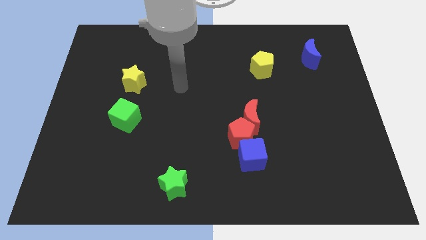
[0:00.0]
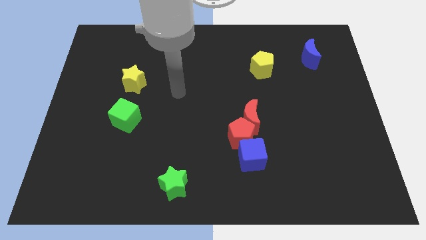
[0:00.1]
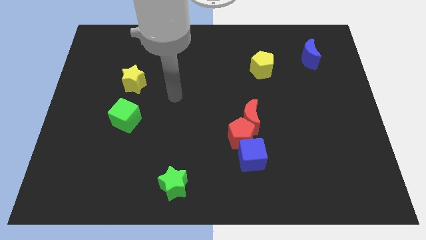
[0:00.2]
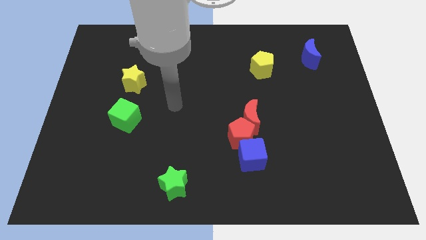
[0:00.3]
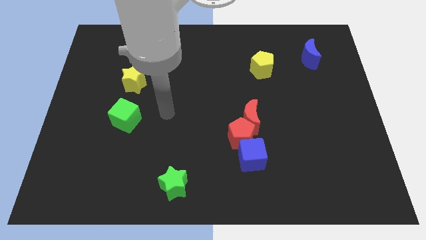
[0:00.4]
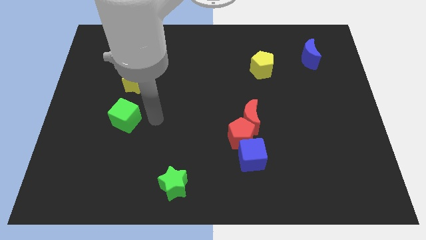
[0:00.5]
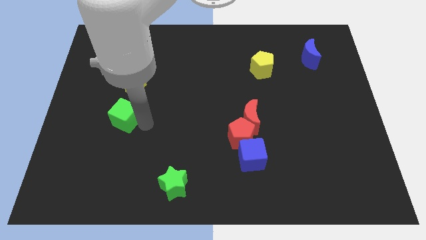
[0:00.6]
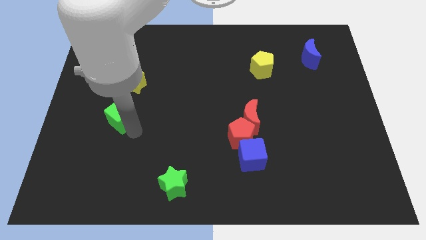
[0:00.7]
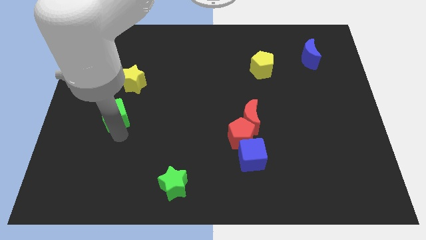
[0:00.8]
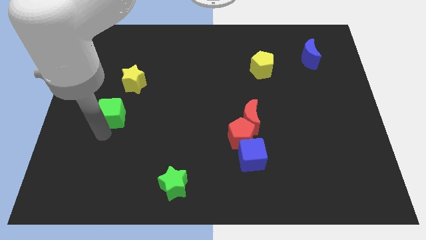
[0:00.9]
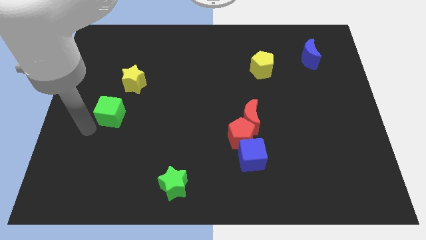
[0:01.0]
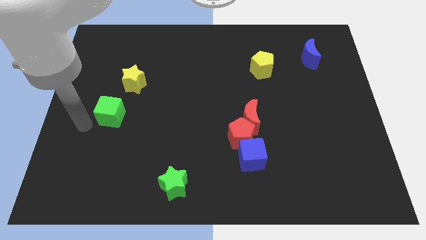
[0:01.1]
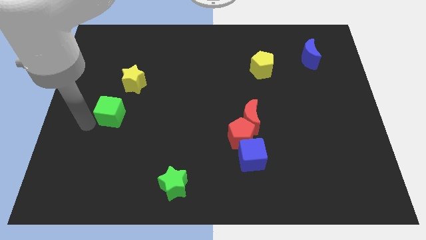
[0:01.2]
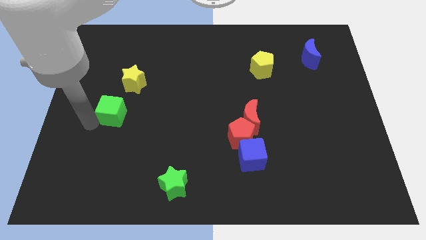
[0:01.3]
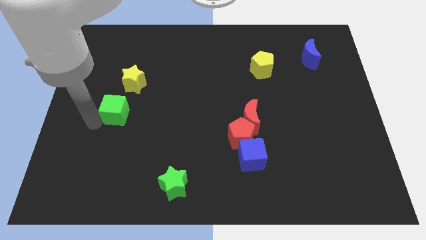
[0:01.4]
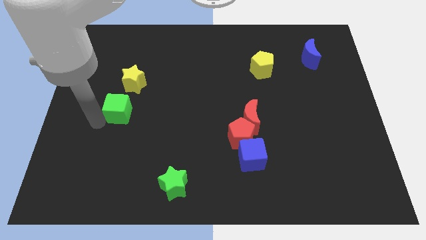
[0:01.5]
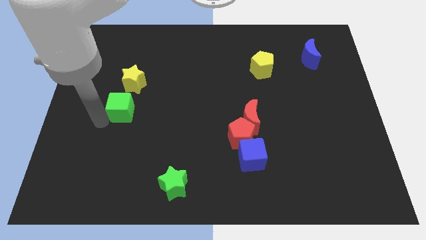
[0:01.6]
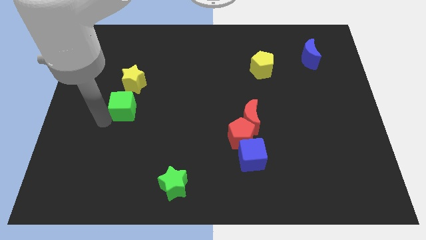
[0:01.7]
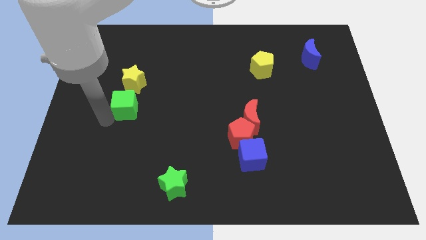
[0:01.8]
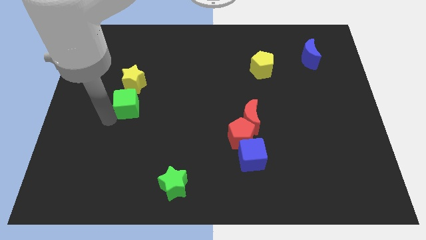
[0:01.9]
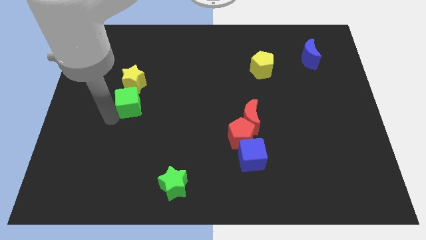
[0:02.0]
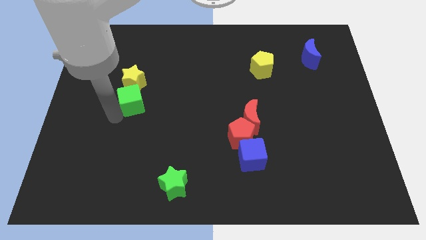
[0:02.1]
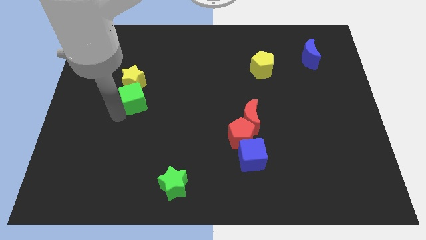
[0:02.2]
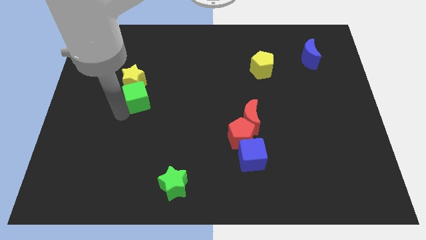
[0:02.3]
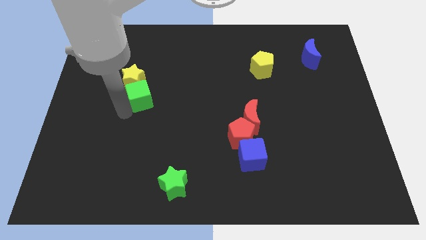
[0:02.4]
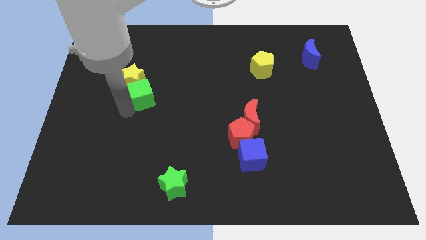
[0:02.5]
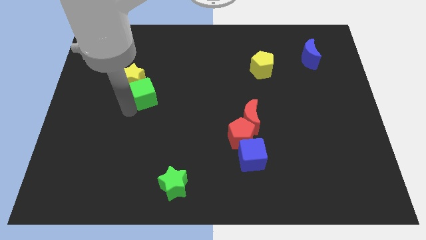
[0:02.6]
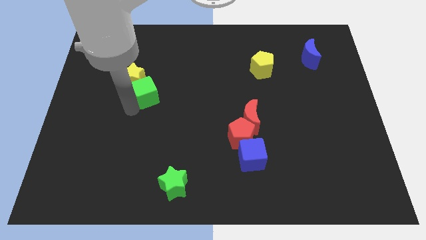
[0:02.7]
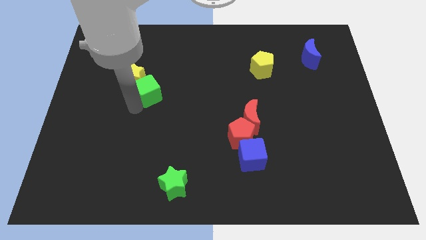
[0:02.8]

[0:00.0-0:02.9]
push the green cube a little upwards

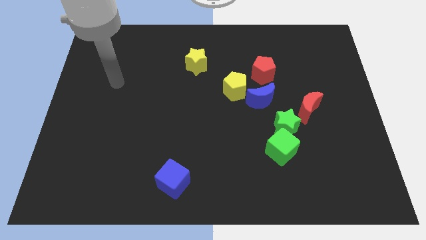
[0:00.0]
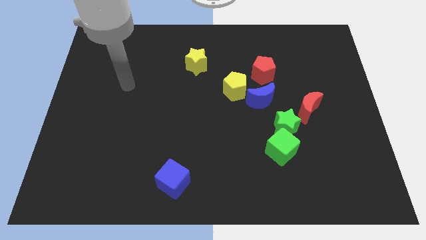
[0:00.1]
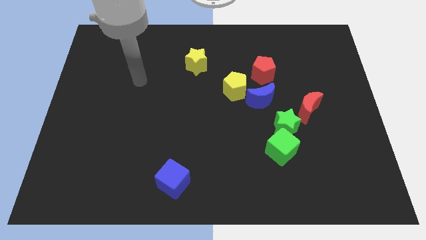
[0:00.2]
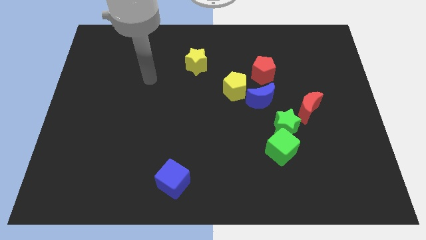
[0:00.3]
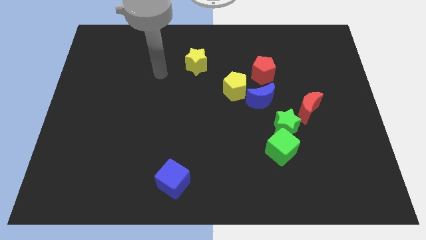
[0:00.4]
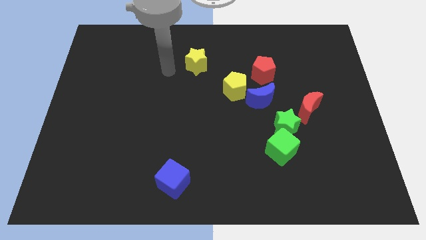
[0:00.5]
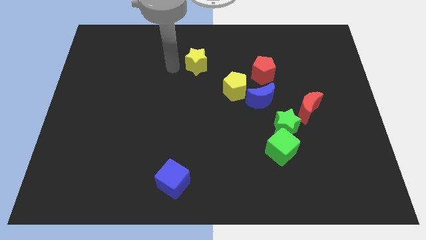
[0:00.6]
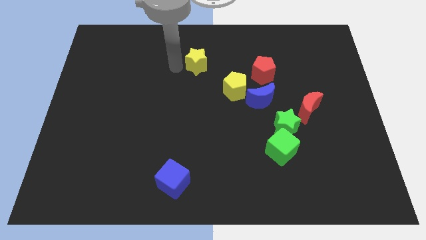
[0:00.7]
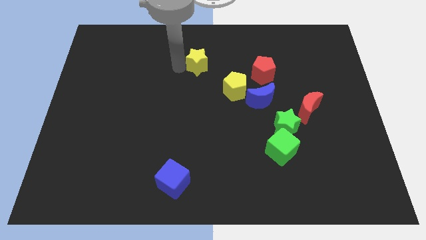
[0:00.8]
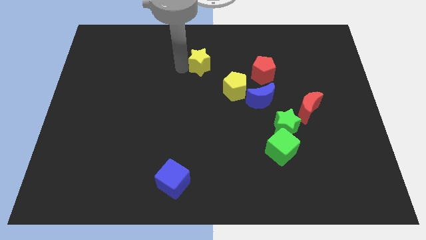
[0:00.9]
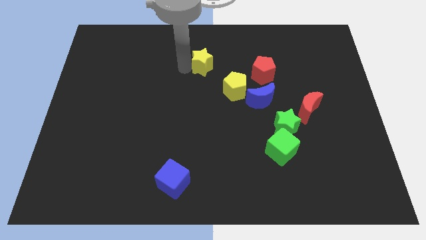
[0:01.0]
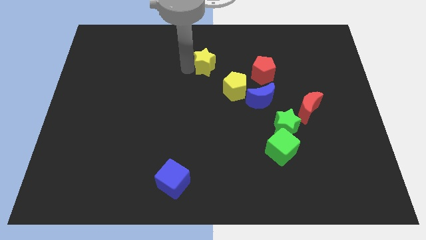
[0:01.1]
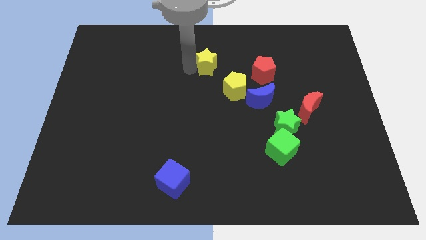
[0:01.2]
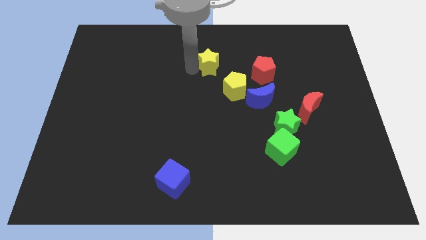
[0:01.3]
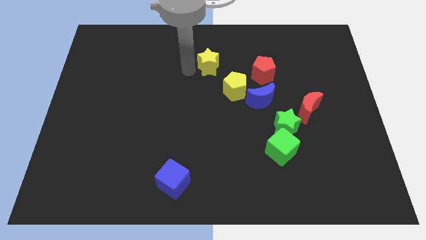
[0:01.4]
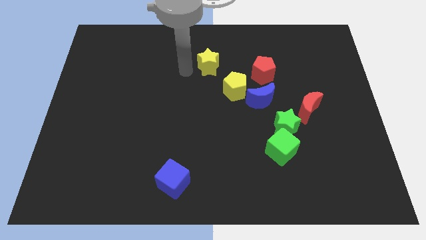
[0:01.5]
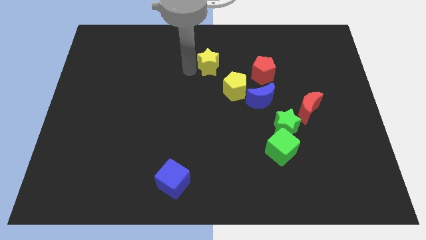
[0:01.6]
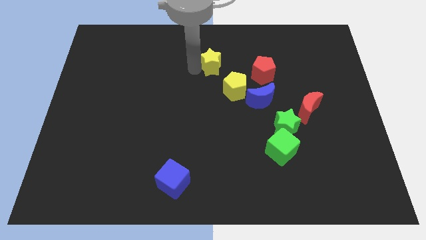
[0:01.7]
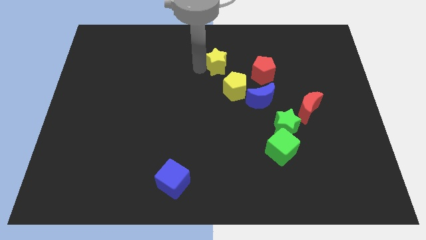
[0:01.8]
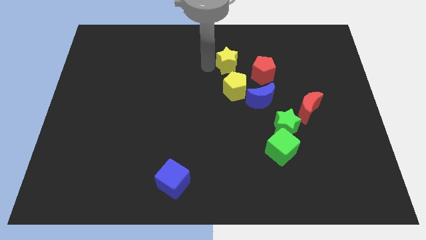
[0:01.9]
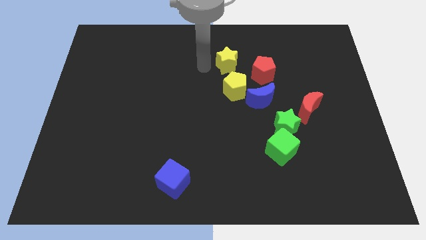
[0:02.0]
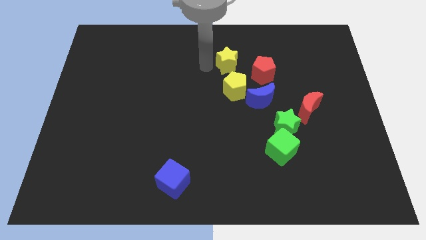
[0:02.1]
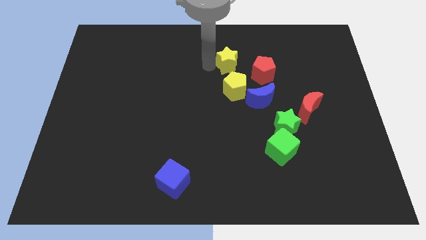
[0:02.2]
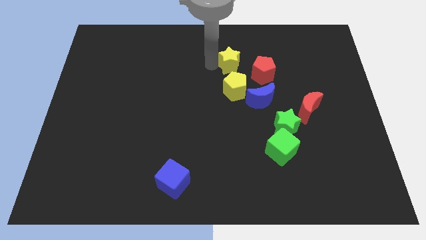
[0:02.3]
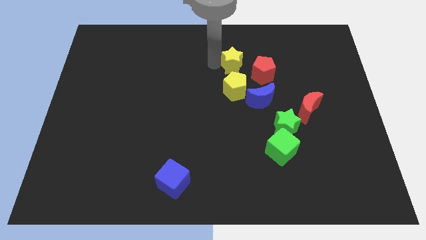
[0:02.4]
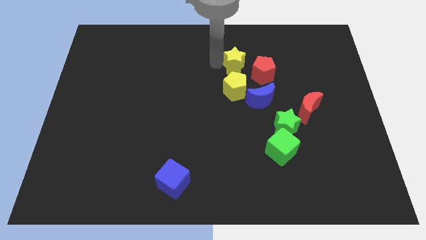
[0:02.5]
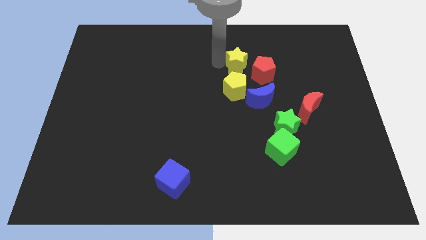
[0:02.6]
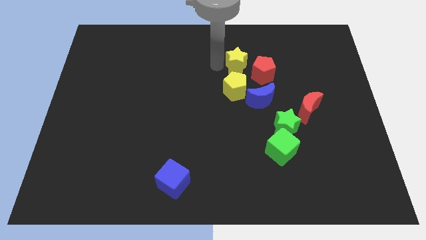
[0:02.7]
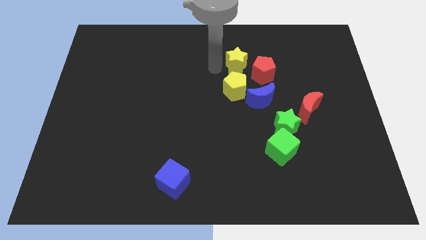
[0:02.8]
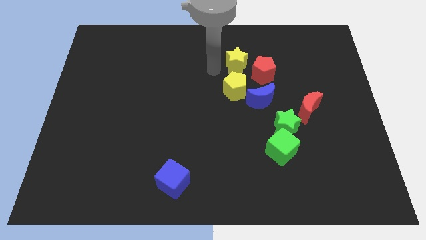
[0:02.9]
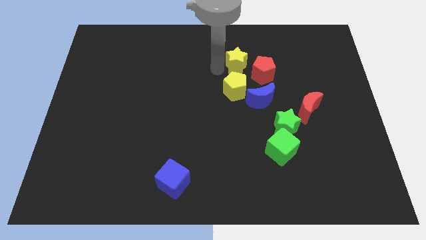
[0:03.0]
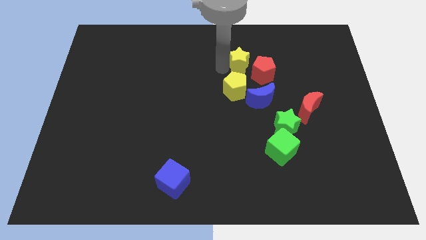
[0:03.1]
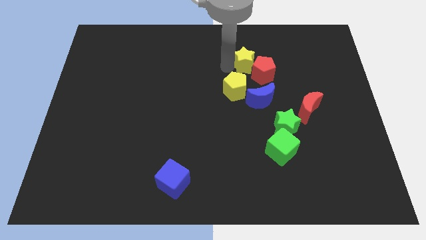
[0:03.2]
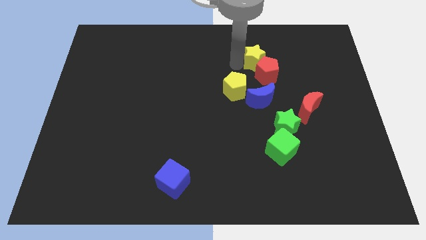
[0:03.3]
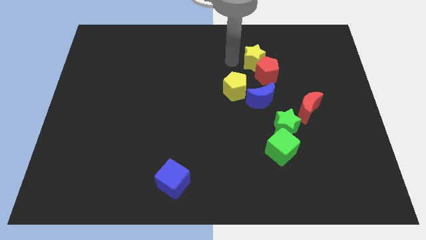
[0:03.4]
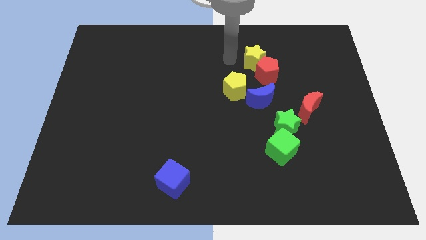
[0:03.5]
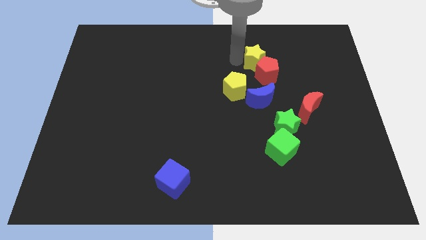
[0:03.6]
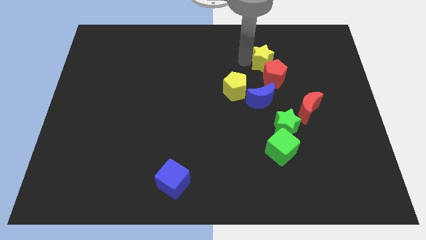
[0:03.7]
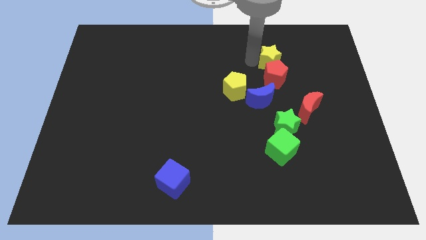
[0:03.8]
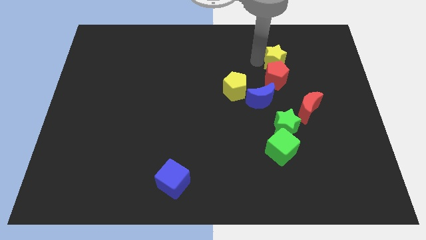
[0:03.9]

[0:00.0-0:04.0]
move the yellow star right

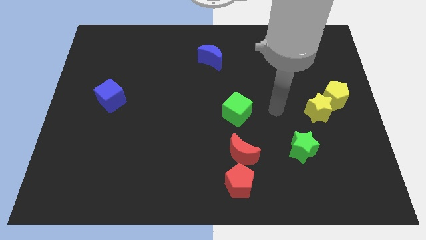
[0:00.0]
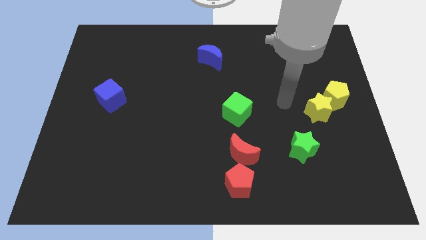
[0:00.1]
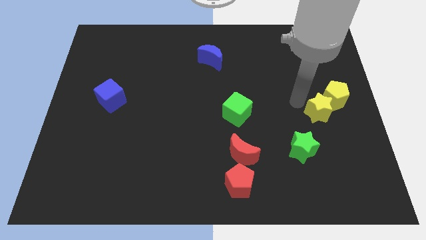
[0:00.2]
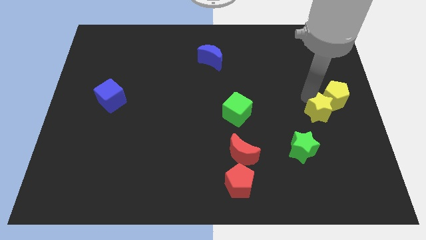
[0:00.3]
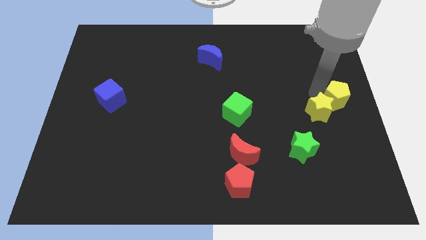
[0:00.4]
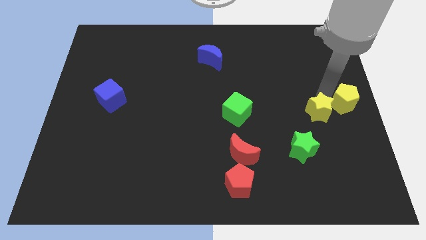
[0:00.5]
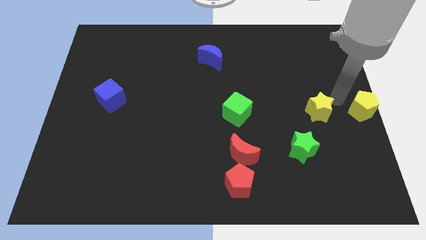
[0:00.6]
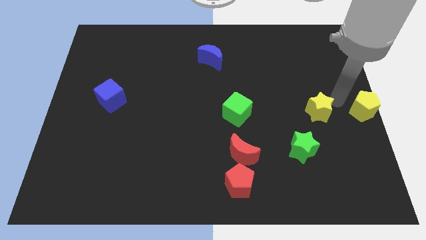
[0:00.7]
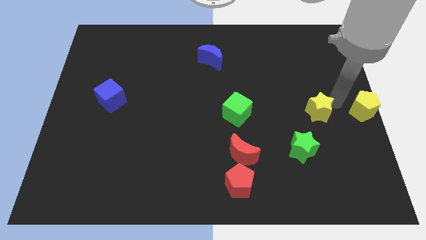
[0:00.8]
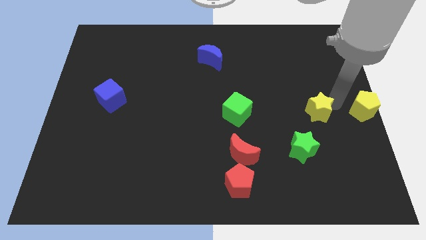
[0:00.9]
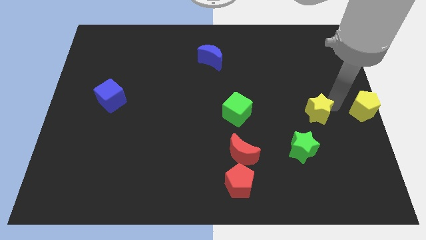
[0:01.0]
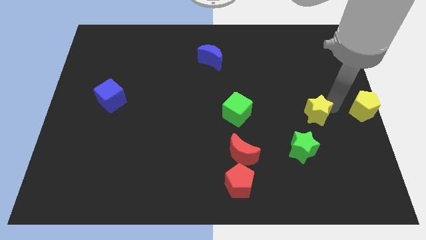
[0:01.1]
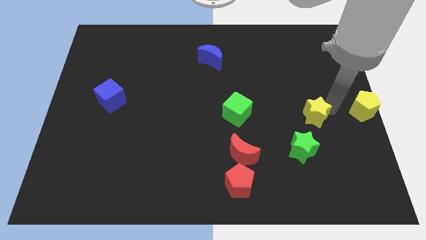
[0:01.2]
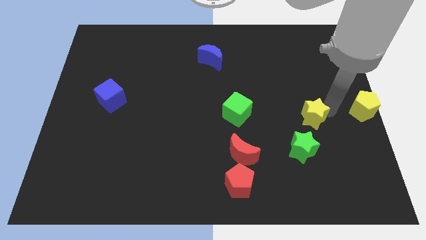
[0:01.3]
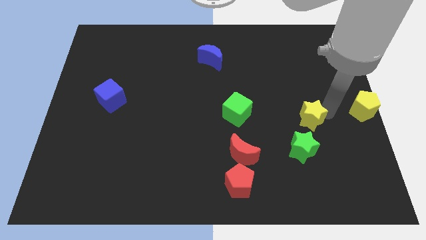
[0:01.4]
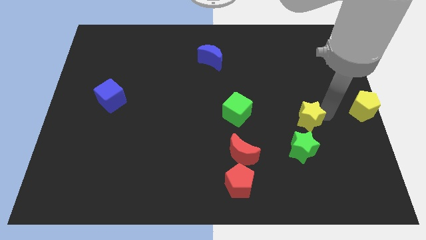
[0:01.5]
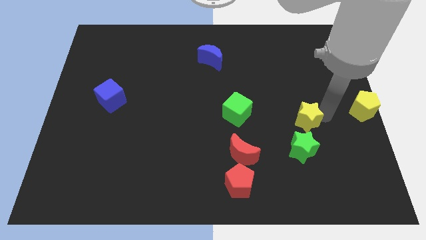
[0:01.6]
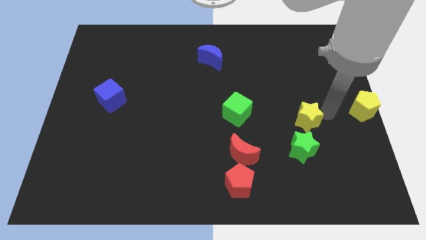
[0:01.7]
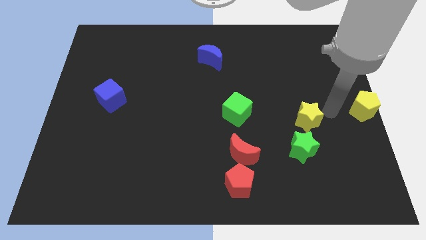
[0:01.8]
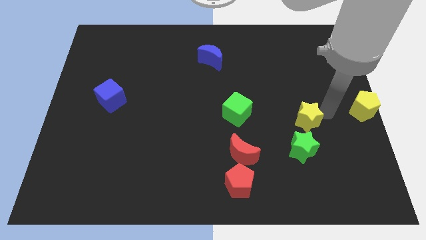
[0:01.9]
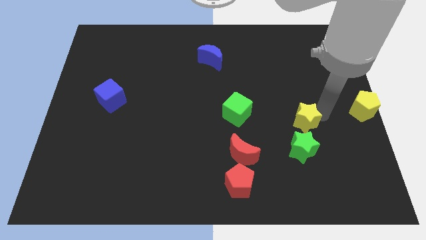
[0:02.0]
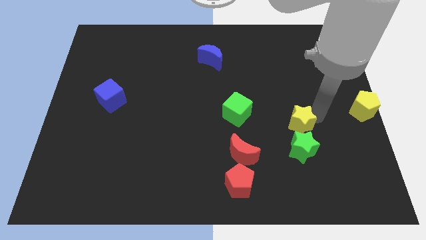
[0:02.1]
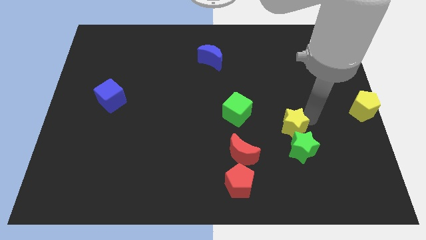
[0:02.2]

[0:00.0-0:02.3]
push the yellow star a little down and left
